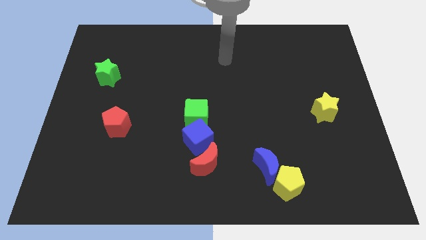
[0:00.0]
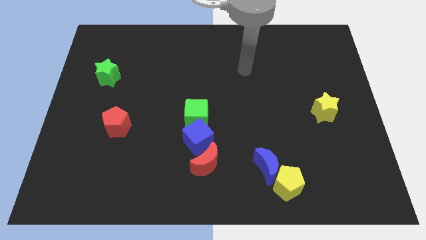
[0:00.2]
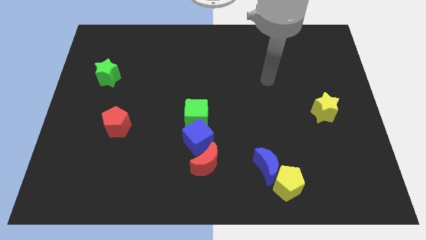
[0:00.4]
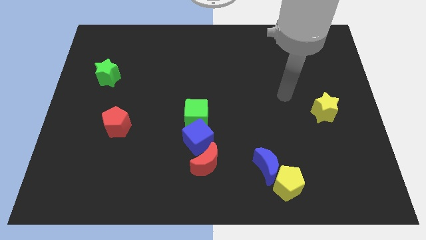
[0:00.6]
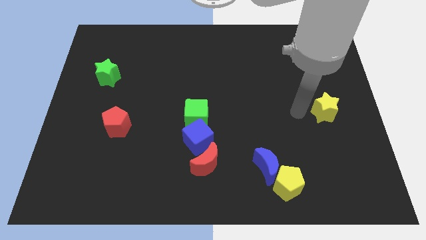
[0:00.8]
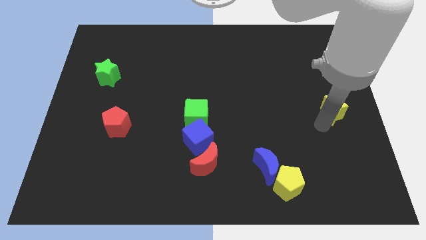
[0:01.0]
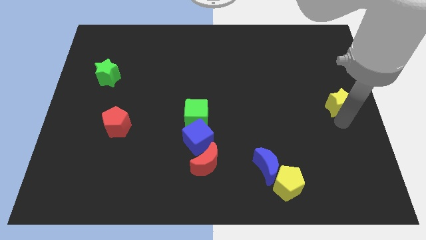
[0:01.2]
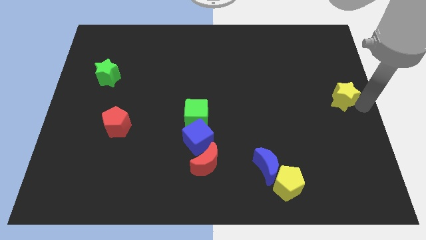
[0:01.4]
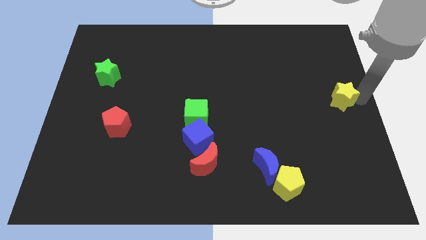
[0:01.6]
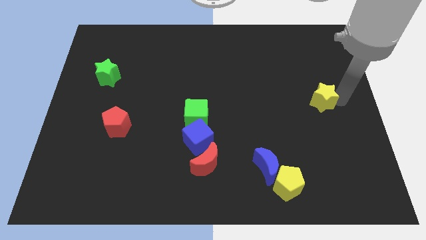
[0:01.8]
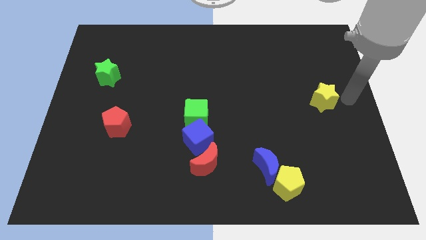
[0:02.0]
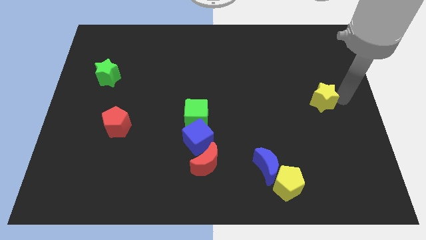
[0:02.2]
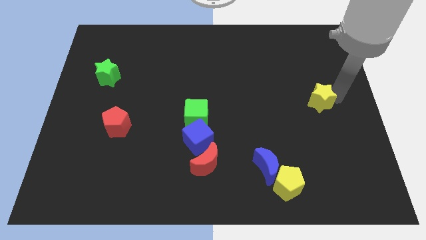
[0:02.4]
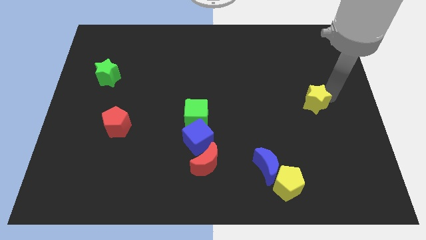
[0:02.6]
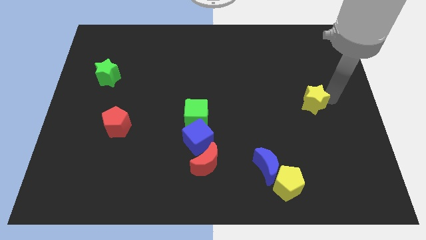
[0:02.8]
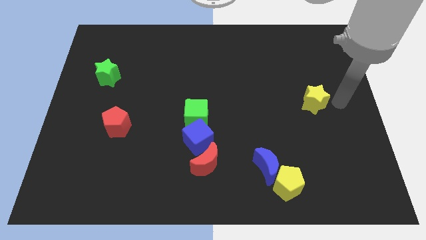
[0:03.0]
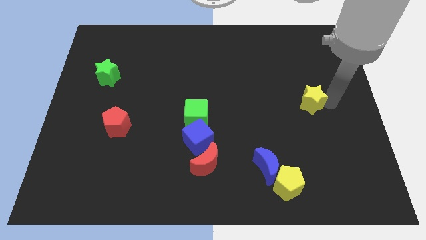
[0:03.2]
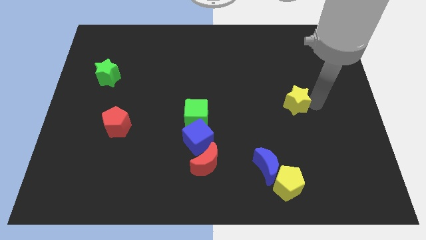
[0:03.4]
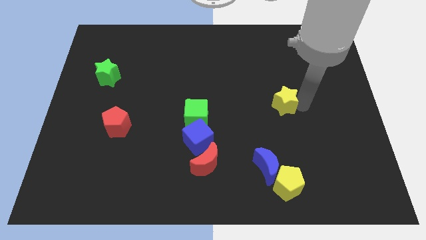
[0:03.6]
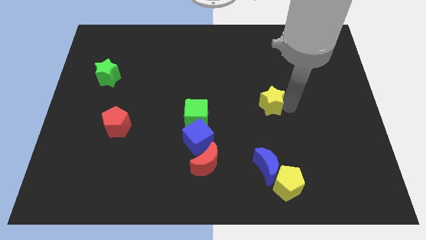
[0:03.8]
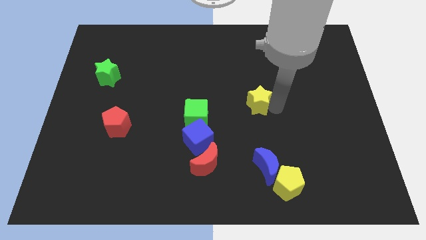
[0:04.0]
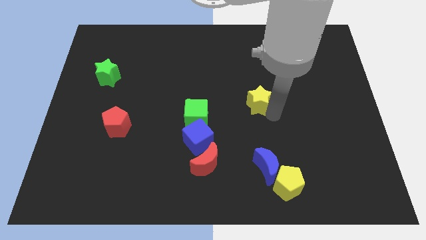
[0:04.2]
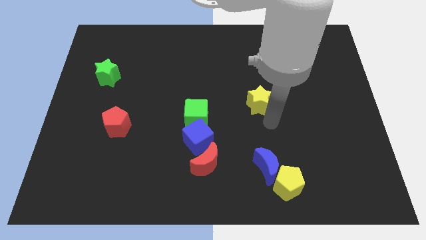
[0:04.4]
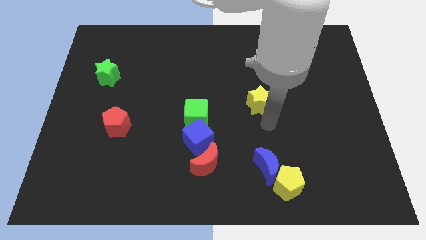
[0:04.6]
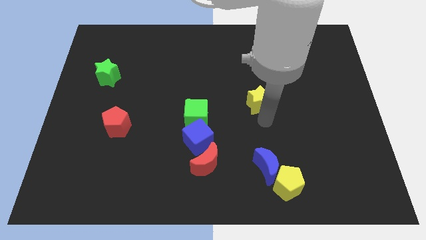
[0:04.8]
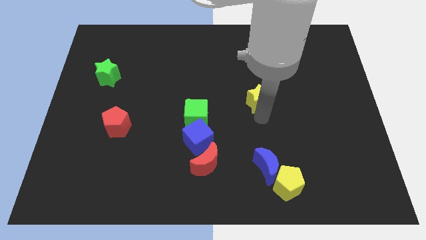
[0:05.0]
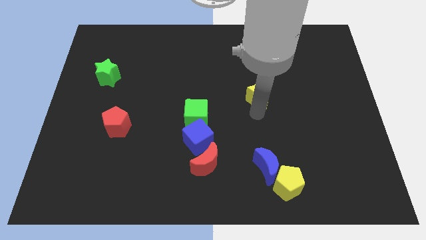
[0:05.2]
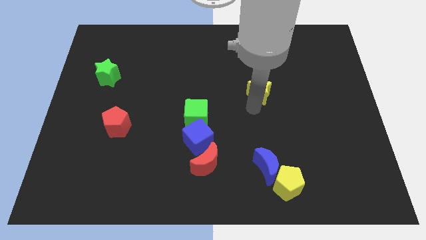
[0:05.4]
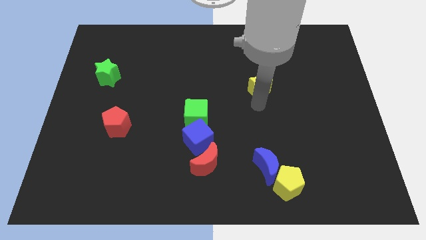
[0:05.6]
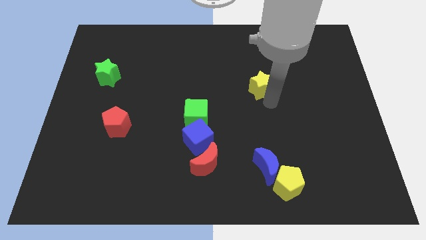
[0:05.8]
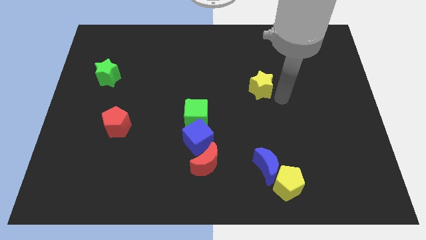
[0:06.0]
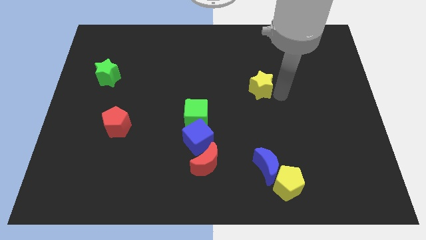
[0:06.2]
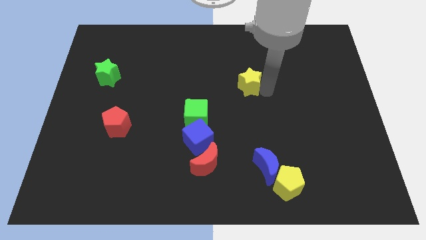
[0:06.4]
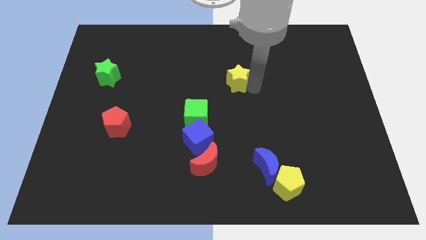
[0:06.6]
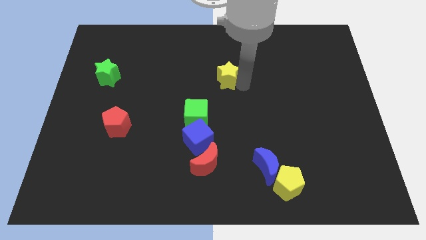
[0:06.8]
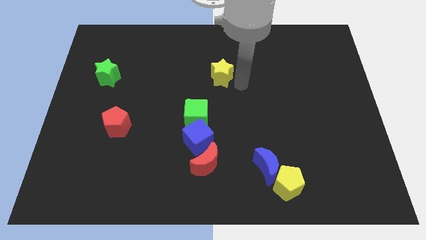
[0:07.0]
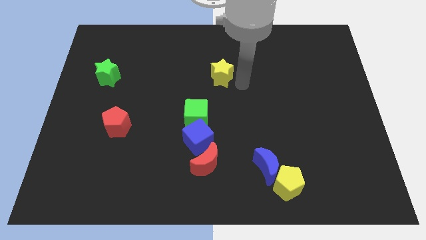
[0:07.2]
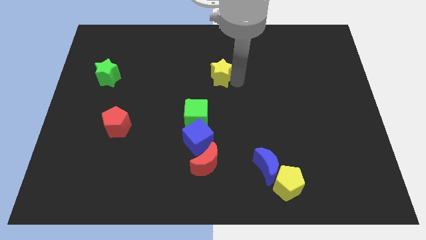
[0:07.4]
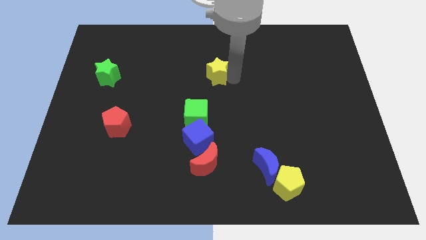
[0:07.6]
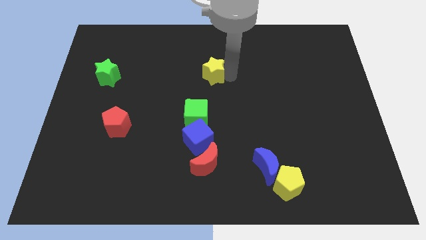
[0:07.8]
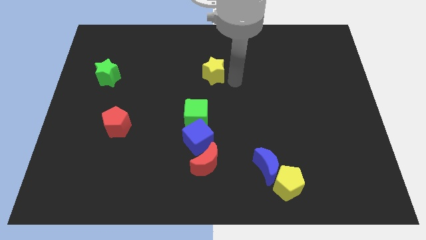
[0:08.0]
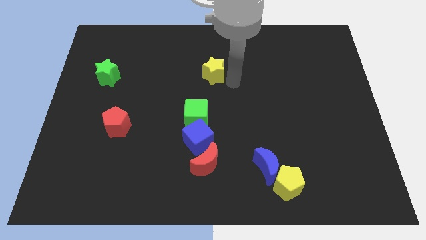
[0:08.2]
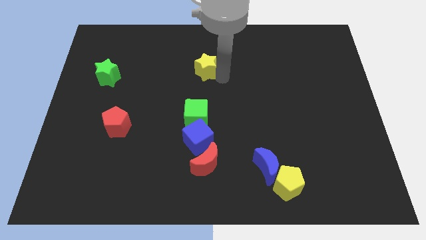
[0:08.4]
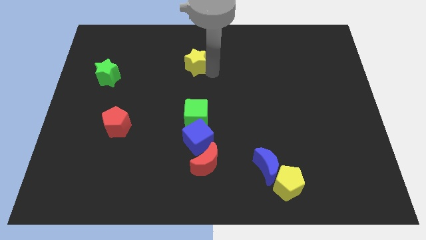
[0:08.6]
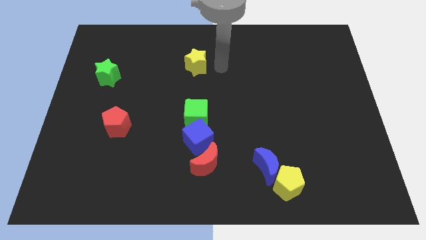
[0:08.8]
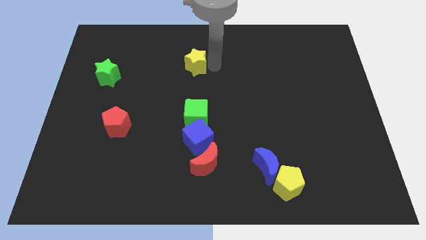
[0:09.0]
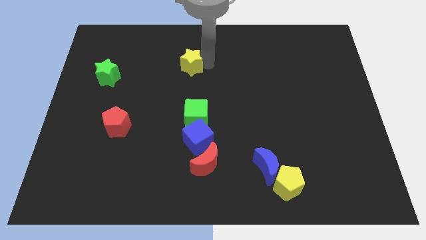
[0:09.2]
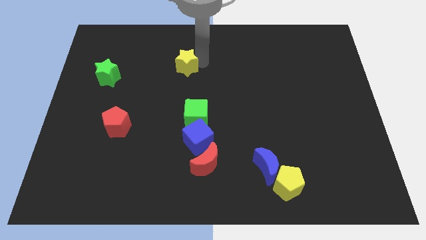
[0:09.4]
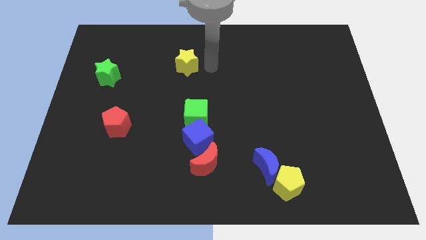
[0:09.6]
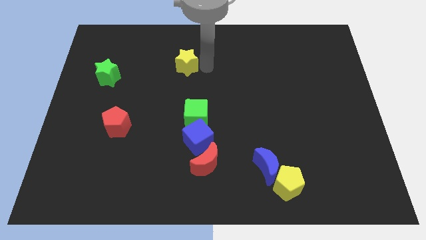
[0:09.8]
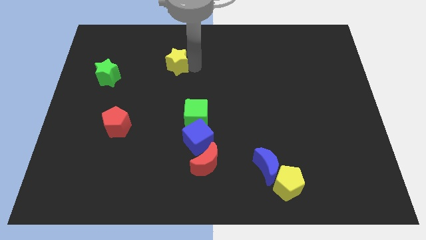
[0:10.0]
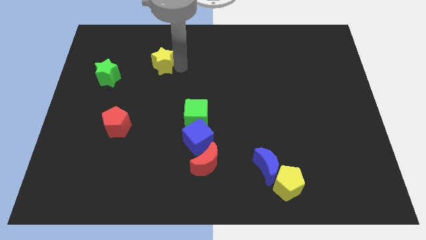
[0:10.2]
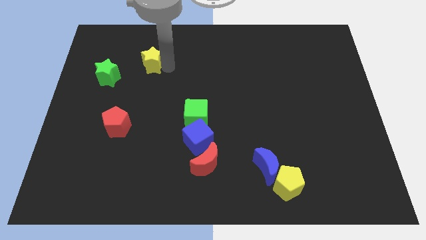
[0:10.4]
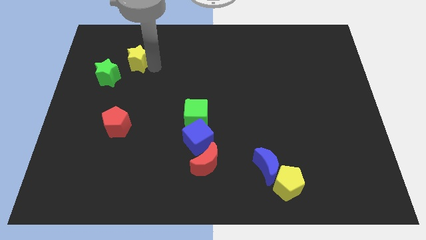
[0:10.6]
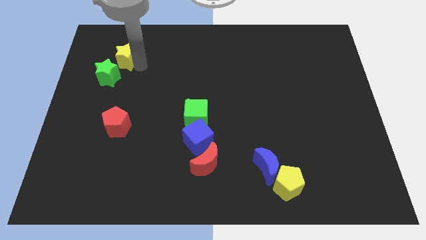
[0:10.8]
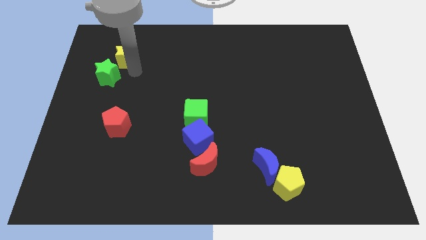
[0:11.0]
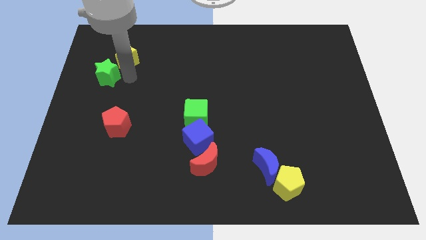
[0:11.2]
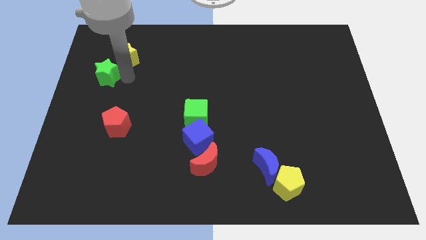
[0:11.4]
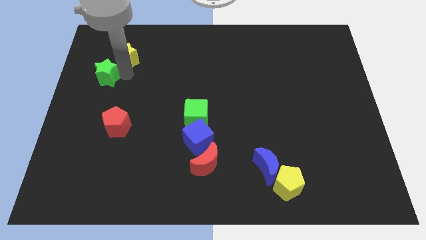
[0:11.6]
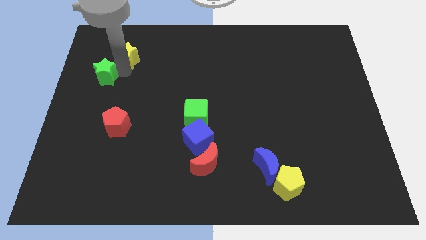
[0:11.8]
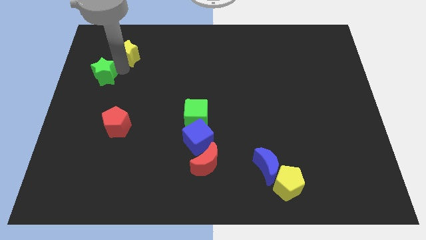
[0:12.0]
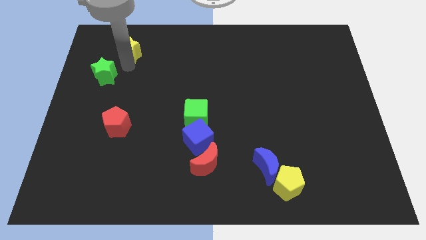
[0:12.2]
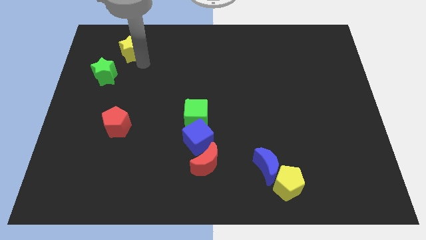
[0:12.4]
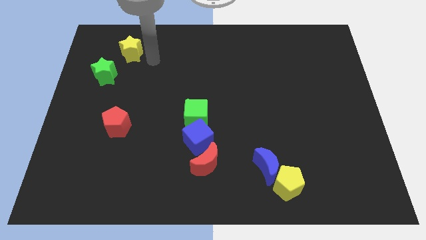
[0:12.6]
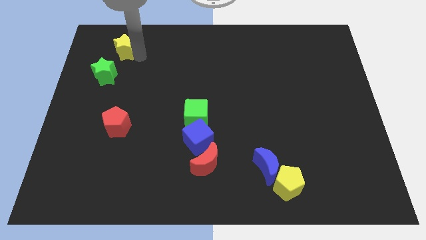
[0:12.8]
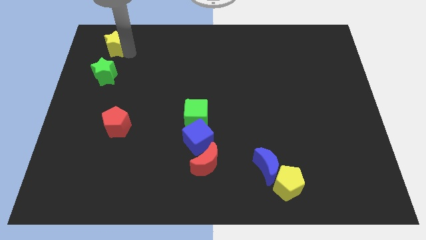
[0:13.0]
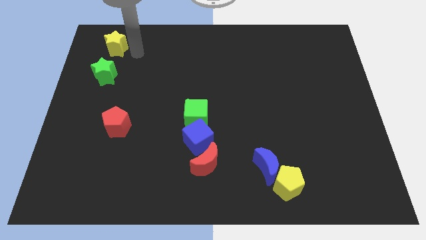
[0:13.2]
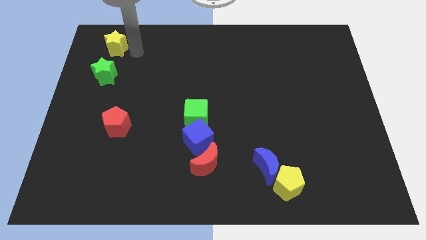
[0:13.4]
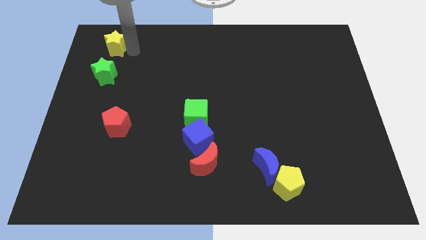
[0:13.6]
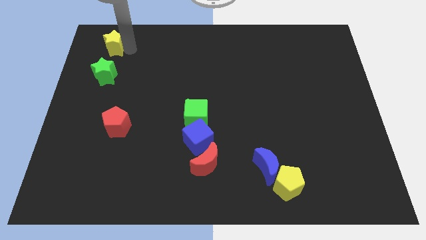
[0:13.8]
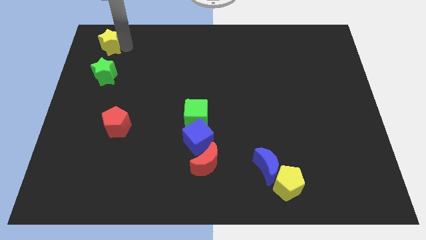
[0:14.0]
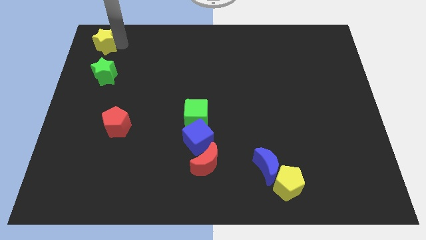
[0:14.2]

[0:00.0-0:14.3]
slide the yellow star to the top left of the board
